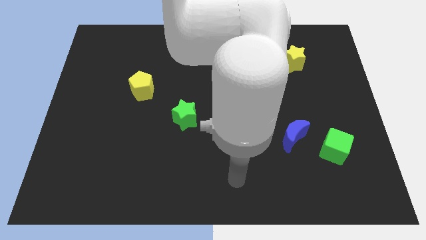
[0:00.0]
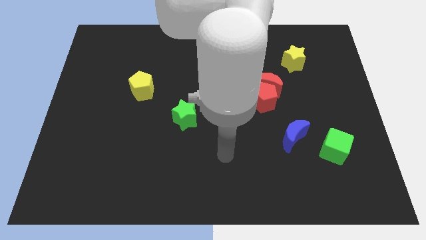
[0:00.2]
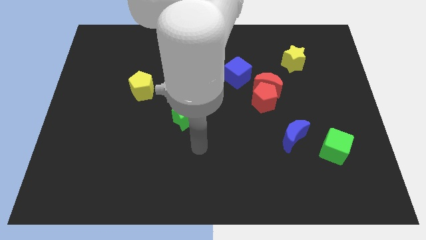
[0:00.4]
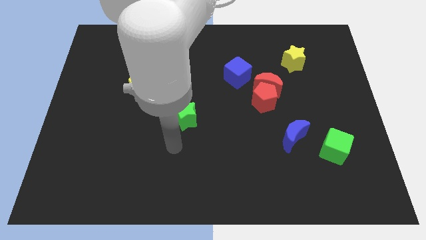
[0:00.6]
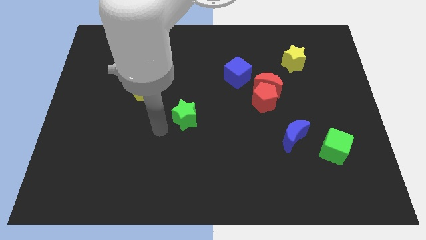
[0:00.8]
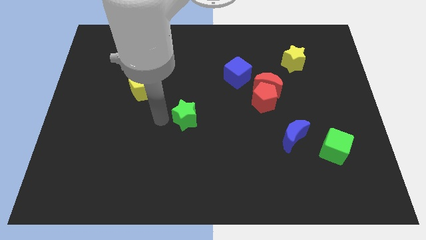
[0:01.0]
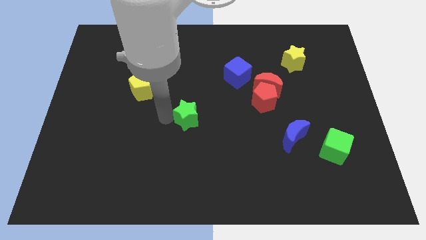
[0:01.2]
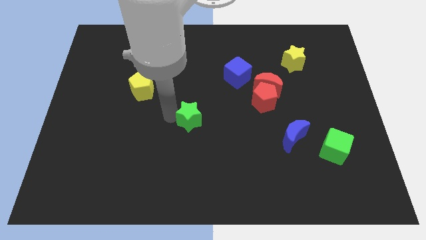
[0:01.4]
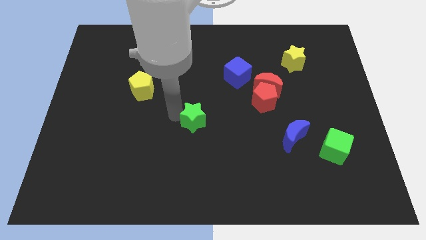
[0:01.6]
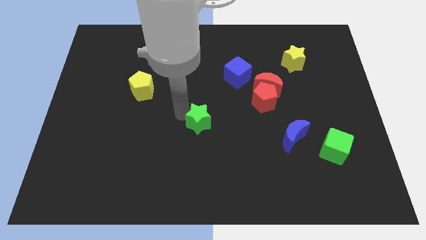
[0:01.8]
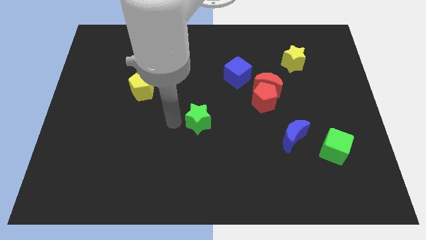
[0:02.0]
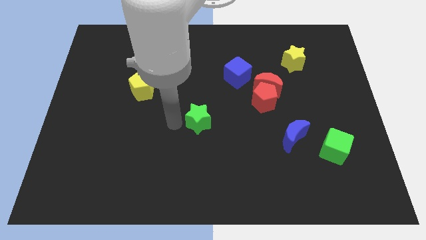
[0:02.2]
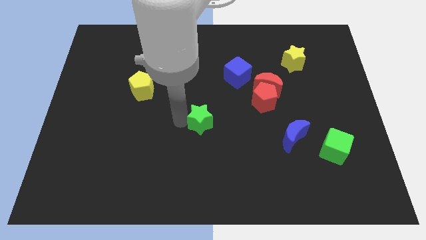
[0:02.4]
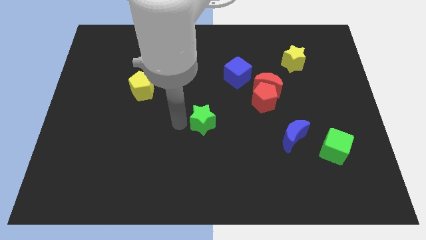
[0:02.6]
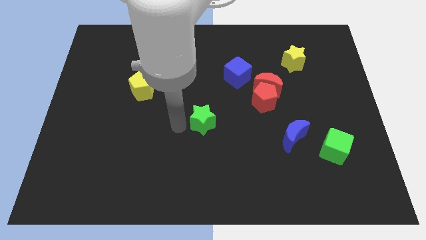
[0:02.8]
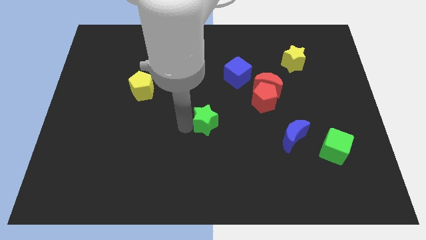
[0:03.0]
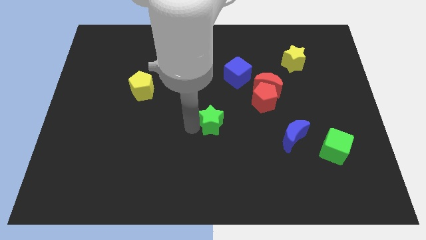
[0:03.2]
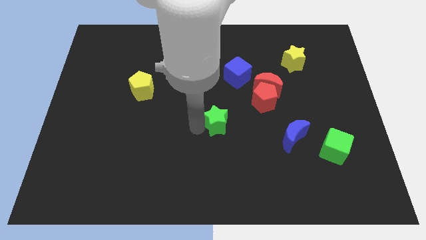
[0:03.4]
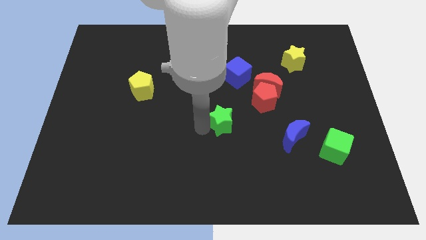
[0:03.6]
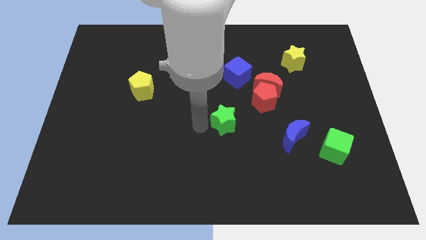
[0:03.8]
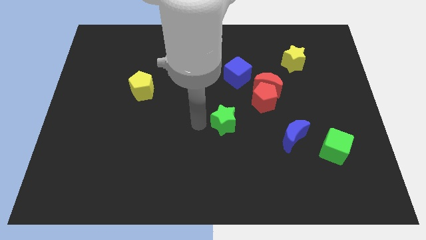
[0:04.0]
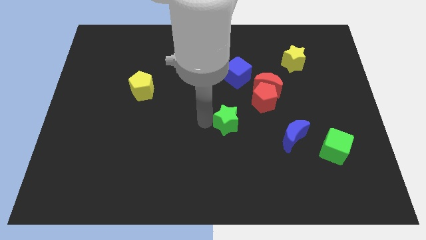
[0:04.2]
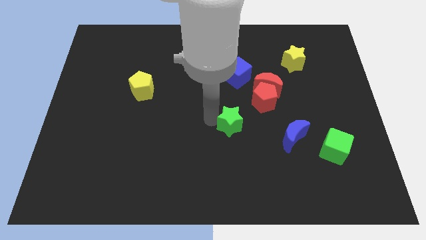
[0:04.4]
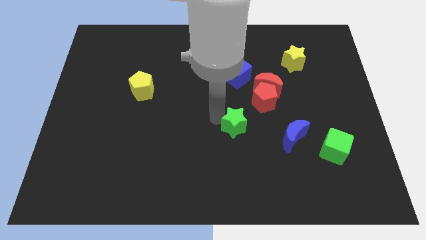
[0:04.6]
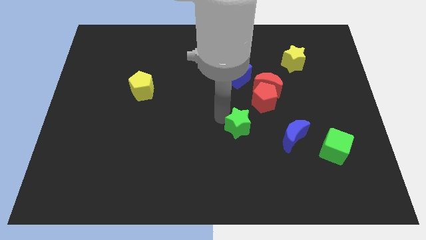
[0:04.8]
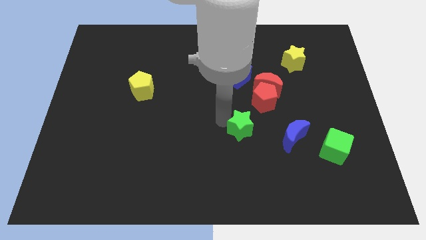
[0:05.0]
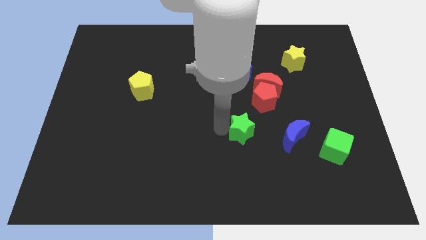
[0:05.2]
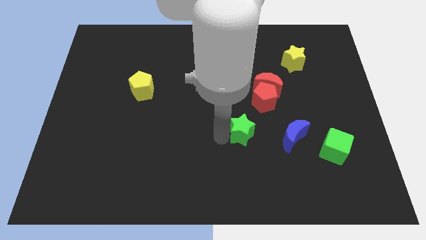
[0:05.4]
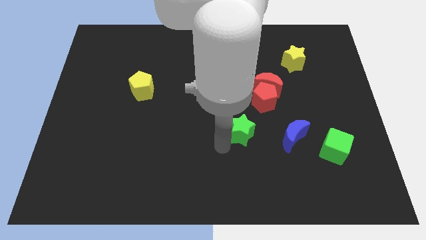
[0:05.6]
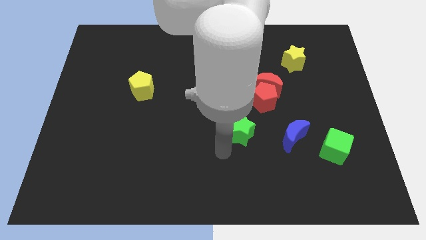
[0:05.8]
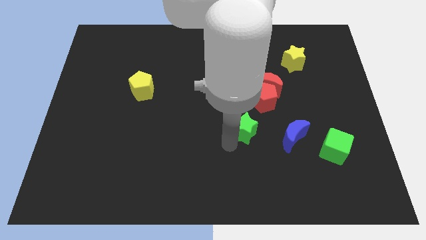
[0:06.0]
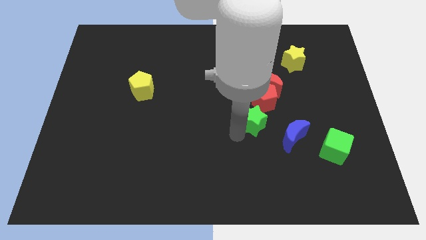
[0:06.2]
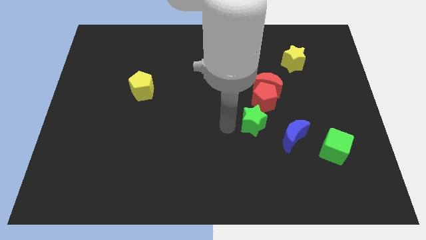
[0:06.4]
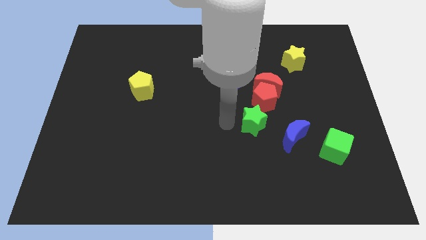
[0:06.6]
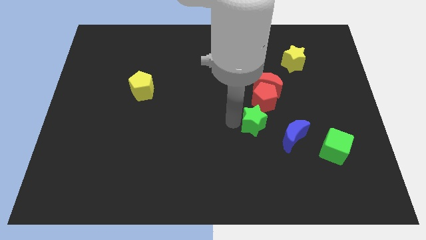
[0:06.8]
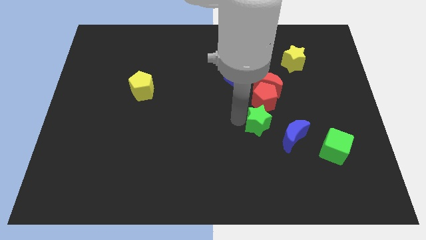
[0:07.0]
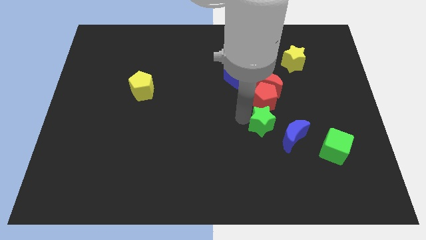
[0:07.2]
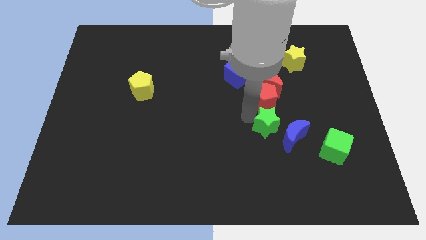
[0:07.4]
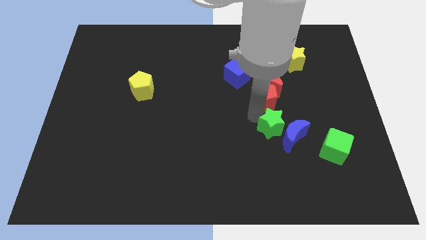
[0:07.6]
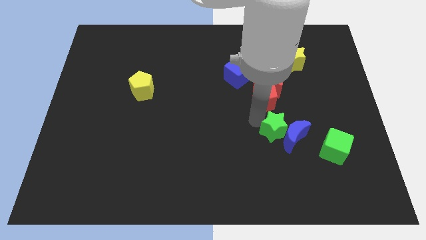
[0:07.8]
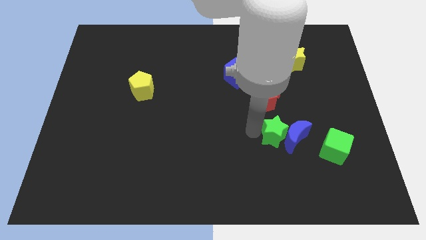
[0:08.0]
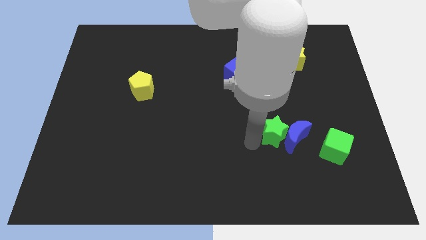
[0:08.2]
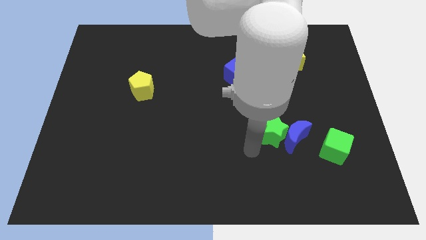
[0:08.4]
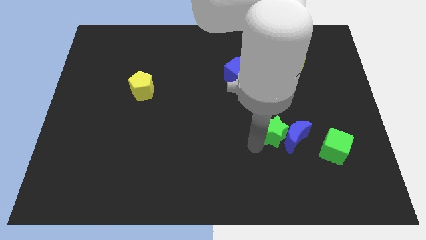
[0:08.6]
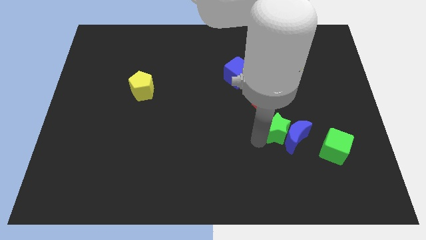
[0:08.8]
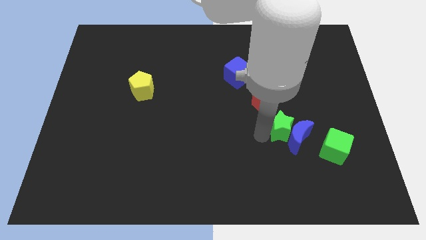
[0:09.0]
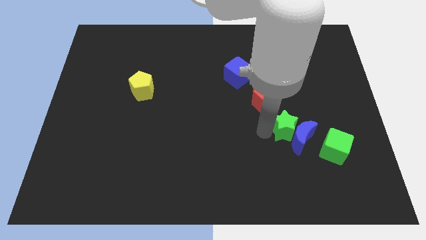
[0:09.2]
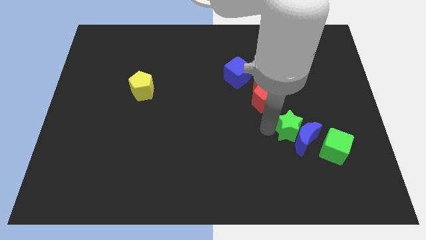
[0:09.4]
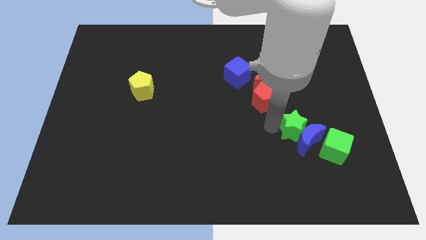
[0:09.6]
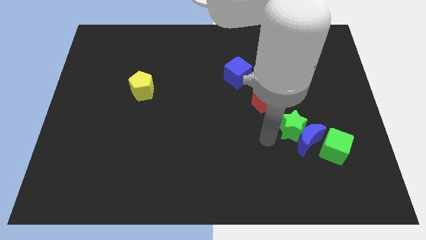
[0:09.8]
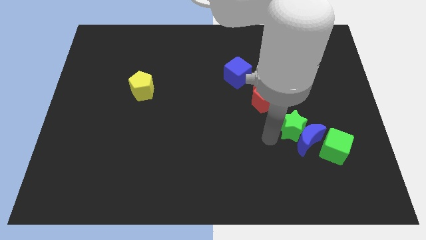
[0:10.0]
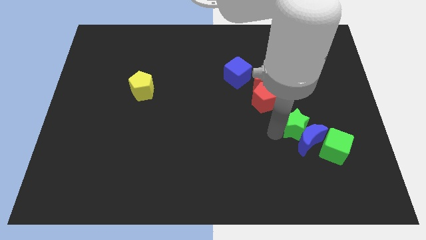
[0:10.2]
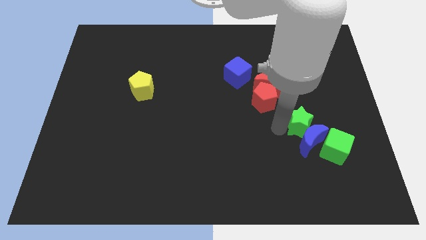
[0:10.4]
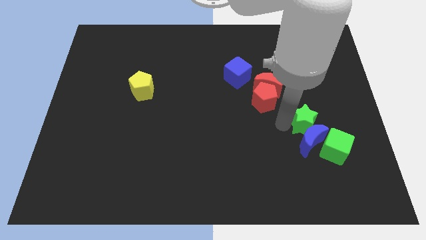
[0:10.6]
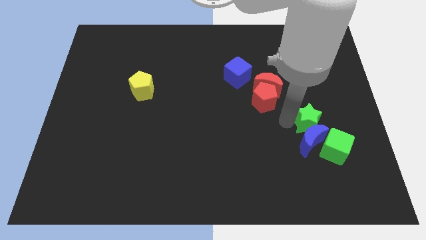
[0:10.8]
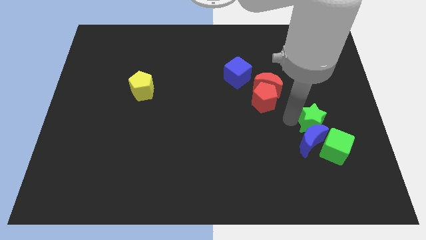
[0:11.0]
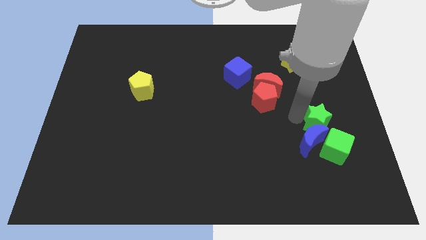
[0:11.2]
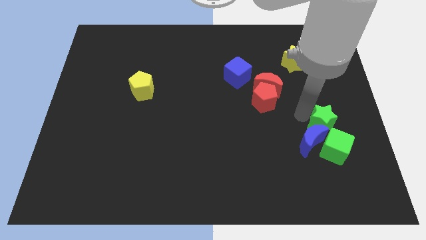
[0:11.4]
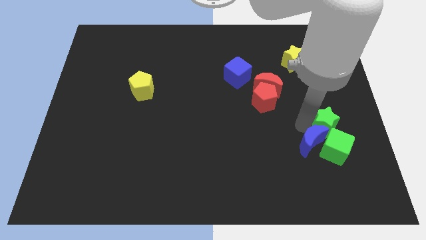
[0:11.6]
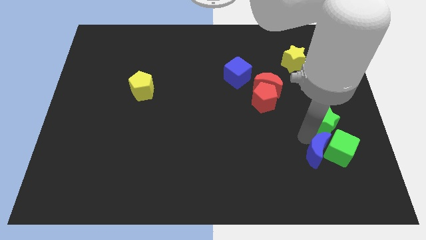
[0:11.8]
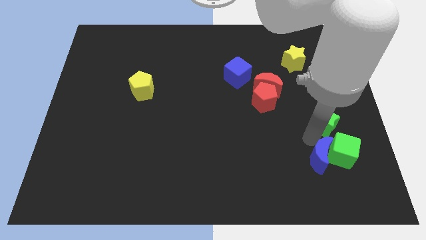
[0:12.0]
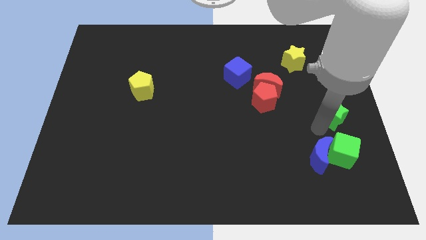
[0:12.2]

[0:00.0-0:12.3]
slide the green star to the right side

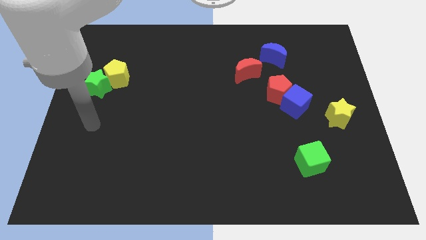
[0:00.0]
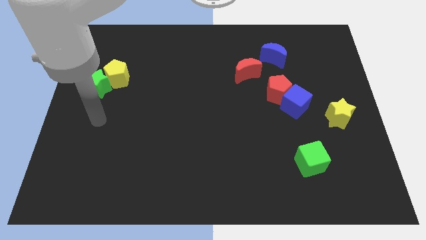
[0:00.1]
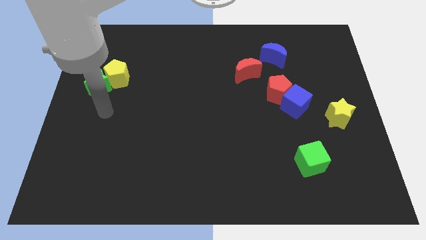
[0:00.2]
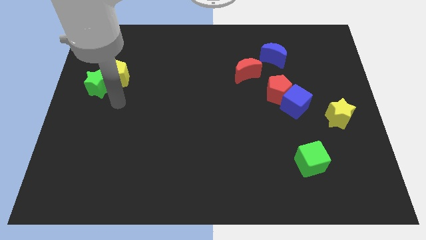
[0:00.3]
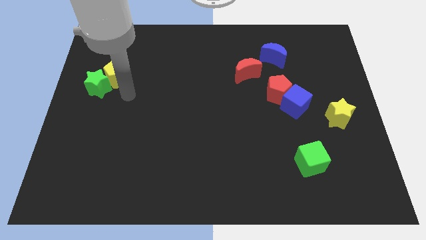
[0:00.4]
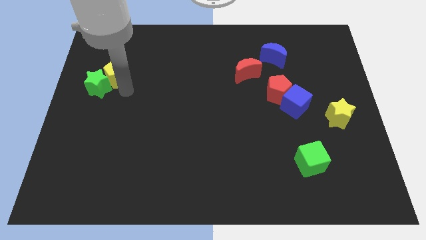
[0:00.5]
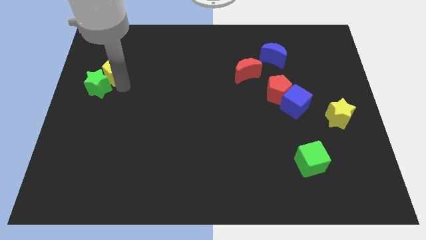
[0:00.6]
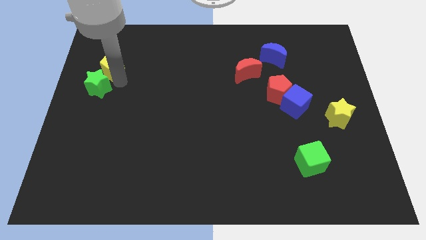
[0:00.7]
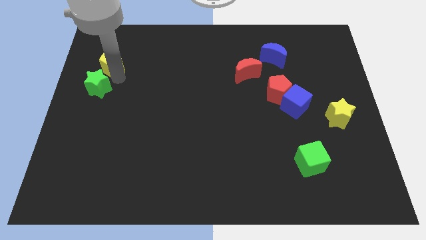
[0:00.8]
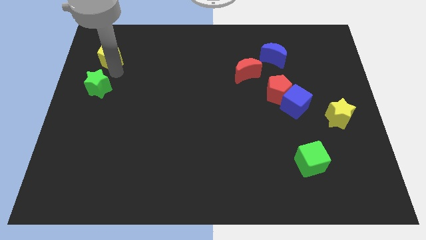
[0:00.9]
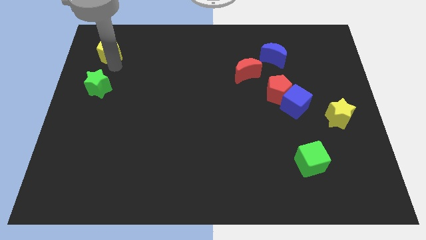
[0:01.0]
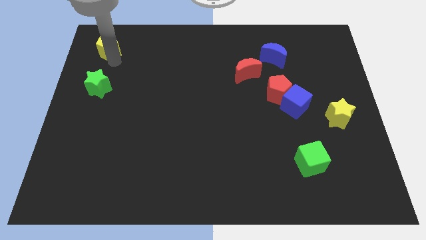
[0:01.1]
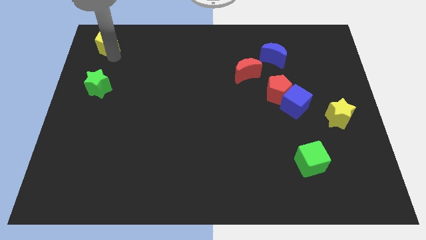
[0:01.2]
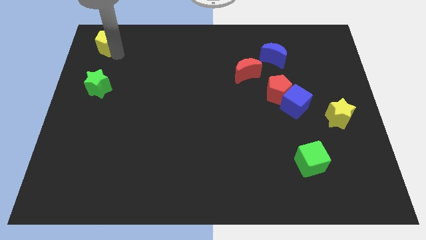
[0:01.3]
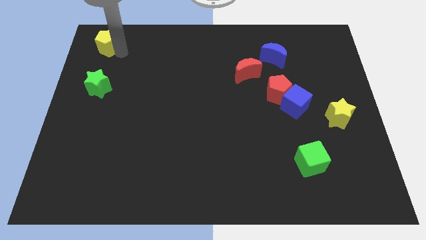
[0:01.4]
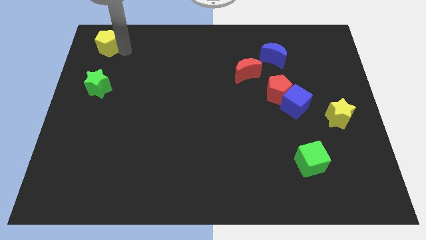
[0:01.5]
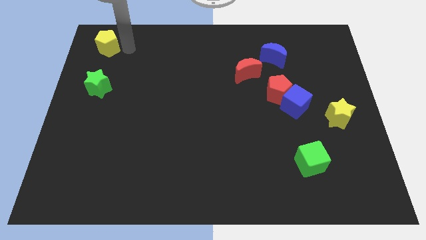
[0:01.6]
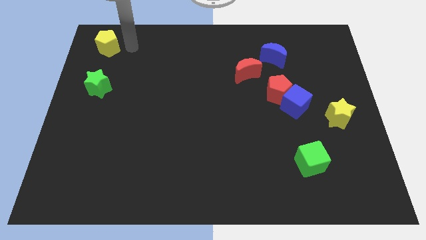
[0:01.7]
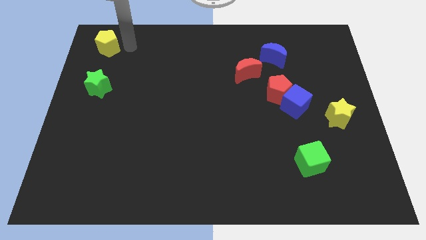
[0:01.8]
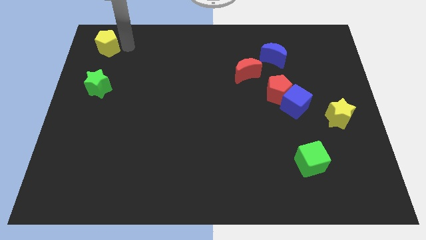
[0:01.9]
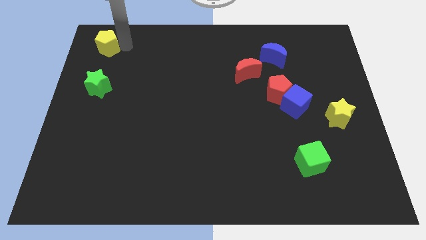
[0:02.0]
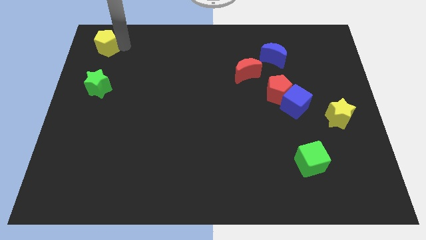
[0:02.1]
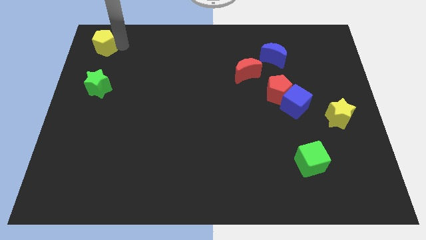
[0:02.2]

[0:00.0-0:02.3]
push the yellow pentagon to the top left corner
